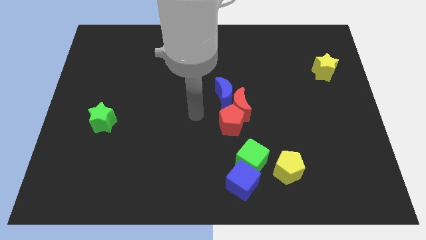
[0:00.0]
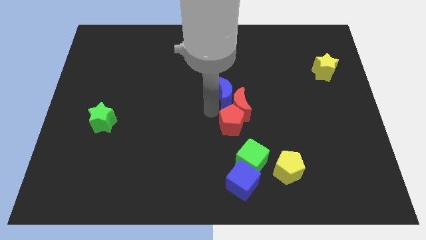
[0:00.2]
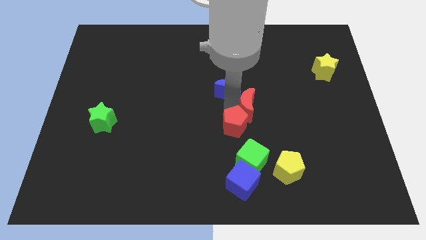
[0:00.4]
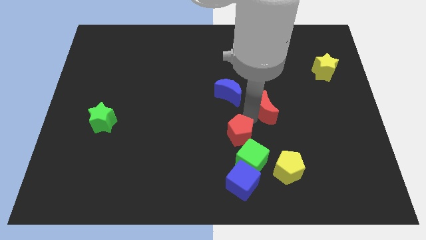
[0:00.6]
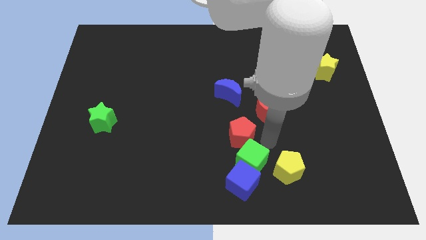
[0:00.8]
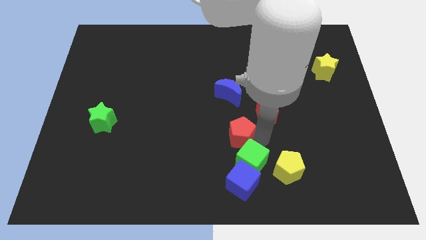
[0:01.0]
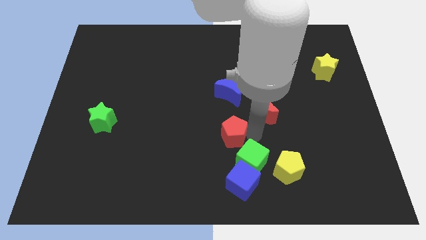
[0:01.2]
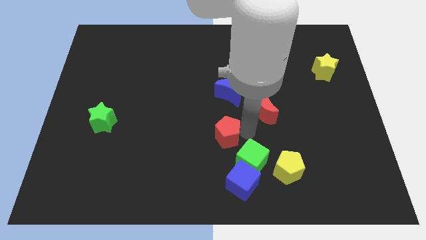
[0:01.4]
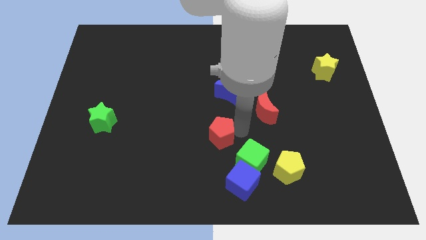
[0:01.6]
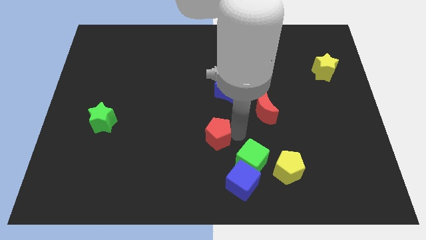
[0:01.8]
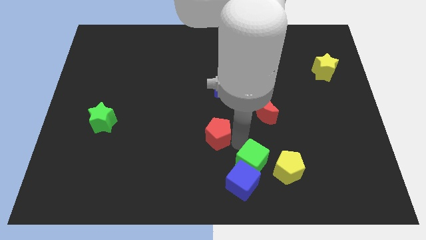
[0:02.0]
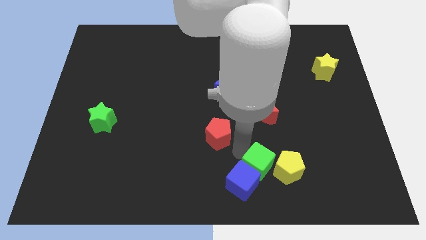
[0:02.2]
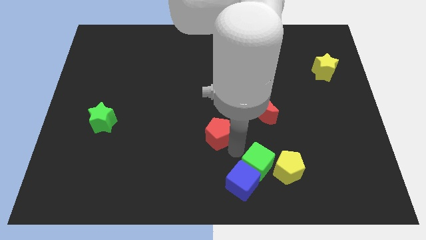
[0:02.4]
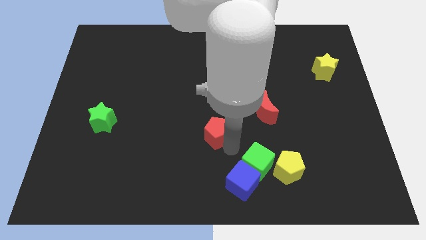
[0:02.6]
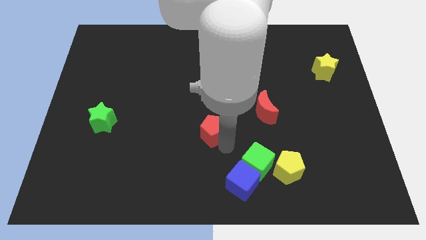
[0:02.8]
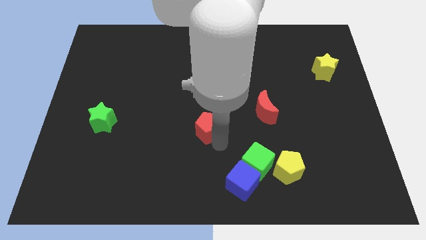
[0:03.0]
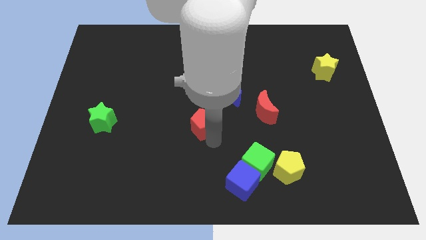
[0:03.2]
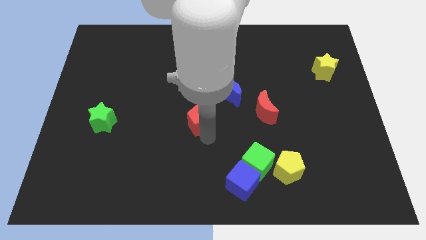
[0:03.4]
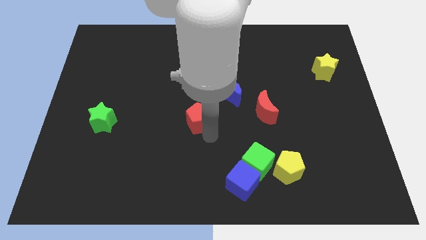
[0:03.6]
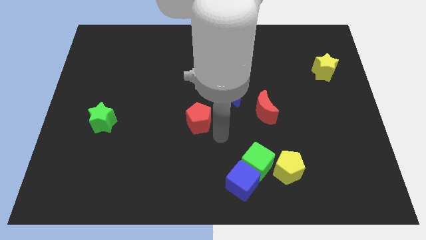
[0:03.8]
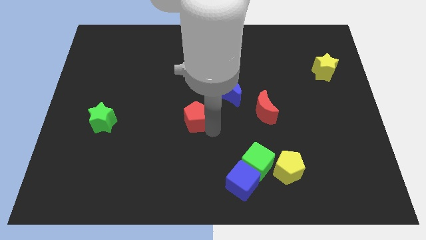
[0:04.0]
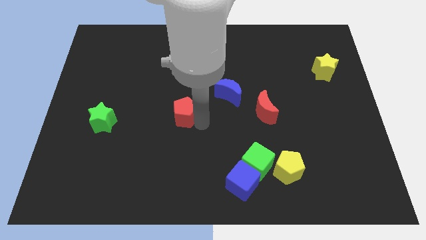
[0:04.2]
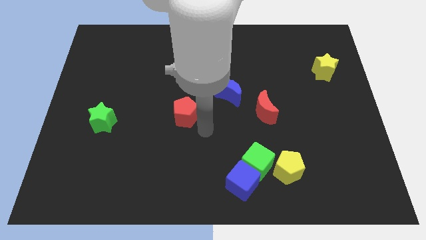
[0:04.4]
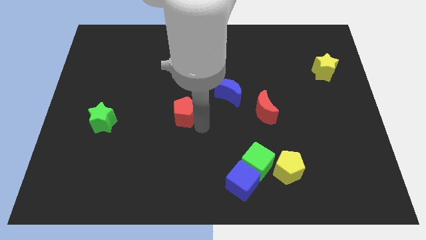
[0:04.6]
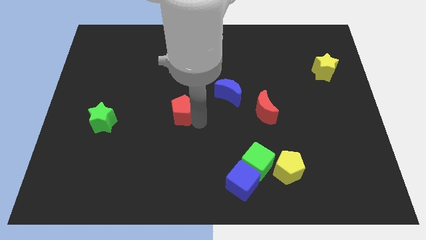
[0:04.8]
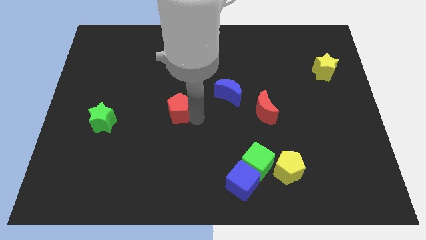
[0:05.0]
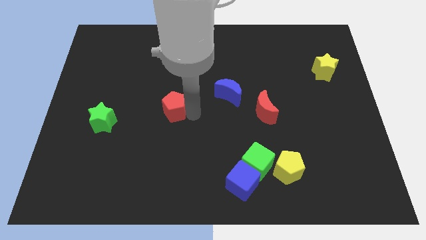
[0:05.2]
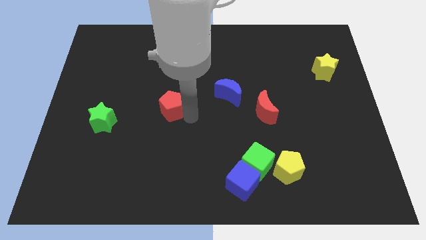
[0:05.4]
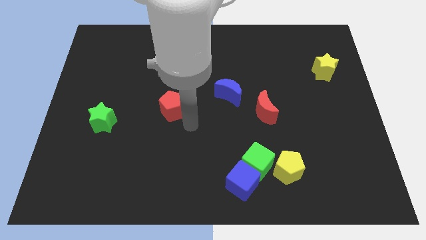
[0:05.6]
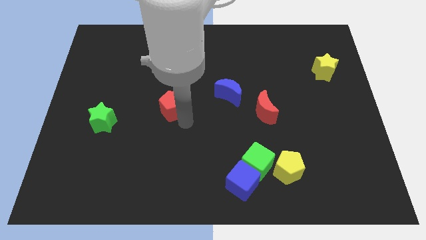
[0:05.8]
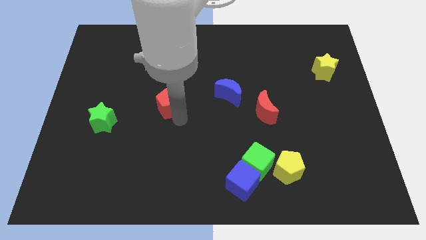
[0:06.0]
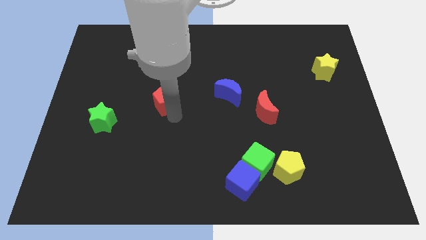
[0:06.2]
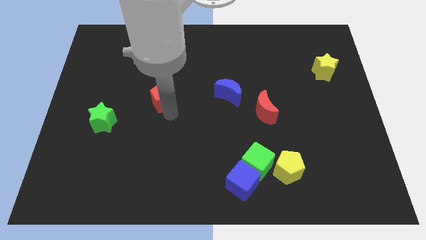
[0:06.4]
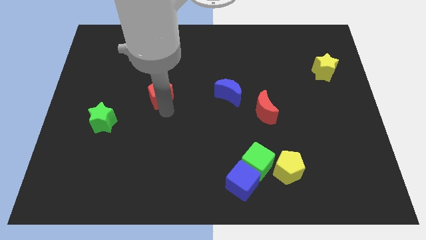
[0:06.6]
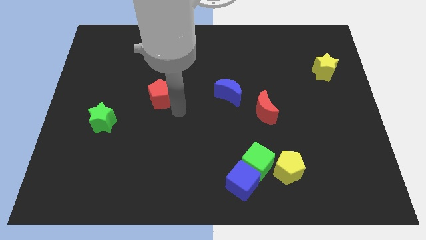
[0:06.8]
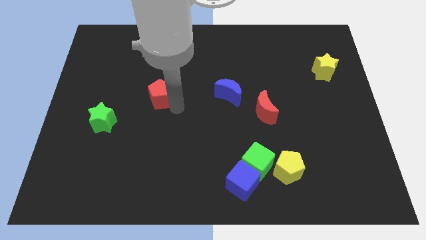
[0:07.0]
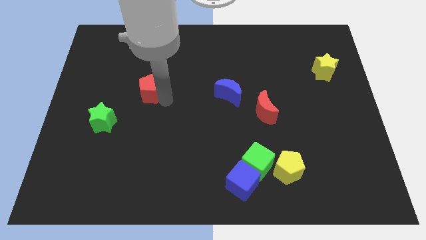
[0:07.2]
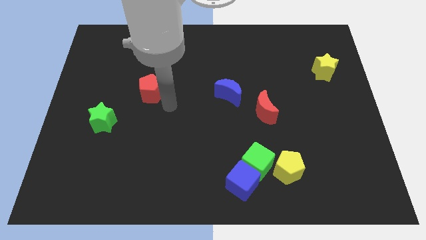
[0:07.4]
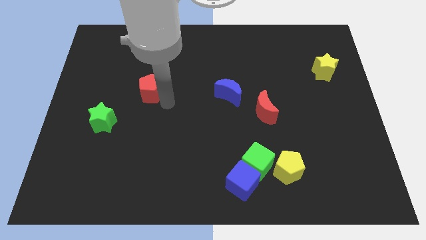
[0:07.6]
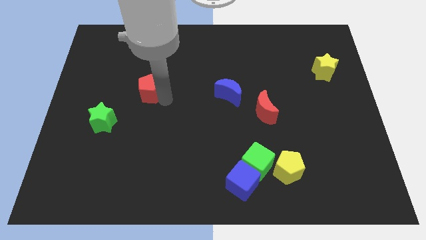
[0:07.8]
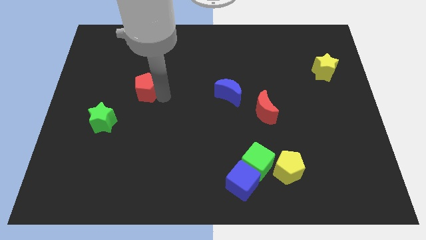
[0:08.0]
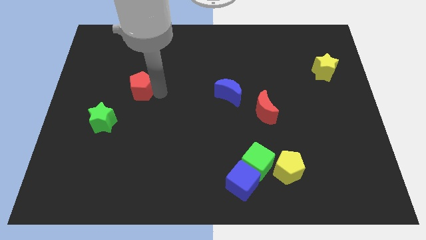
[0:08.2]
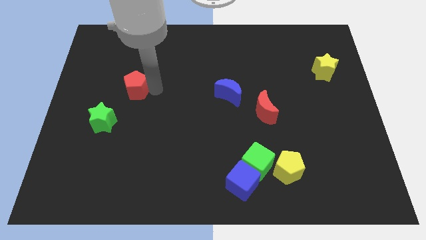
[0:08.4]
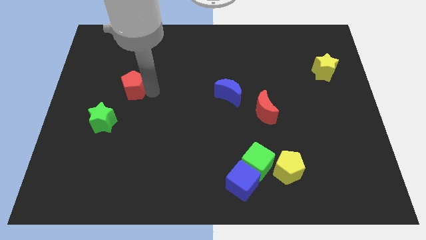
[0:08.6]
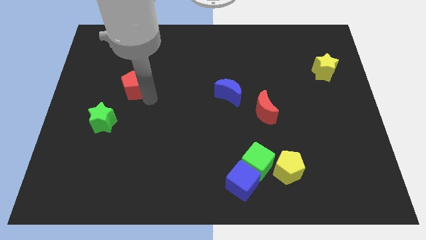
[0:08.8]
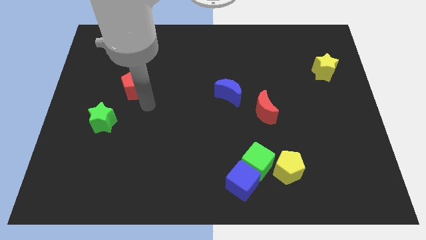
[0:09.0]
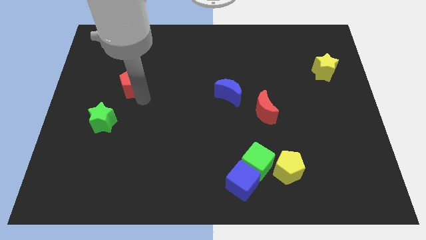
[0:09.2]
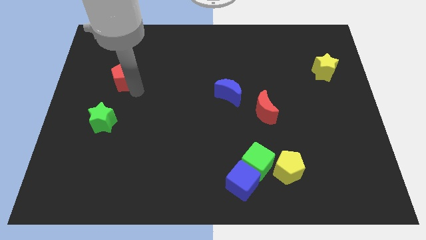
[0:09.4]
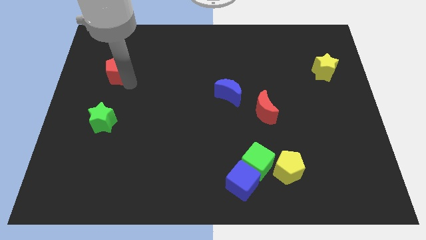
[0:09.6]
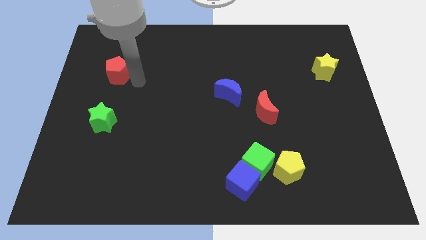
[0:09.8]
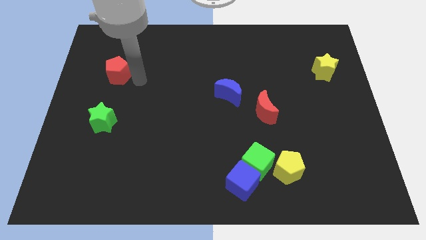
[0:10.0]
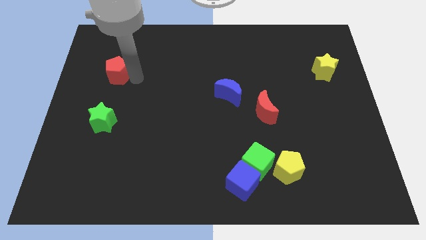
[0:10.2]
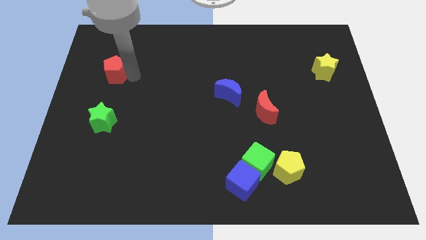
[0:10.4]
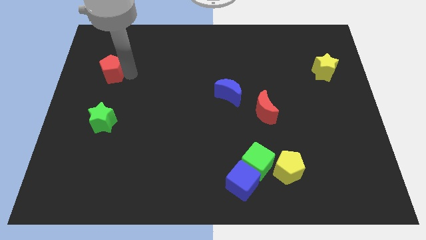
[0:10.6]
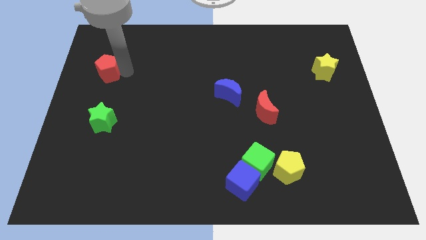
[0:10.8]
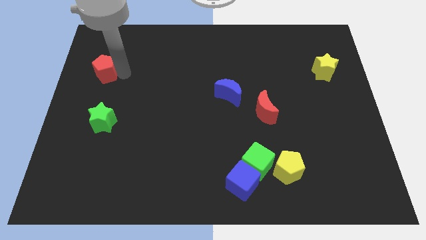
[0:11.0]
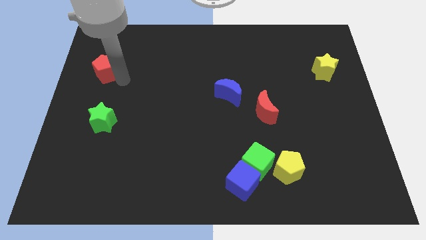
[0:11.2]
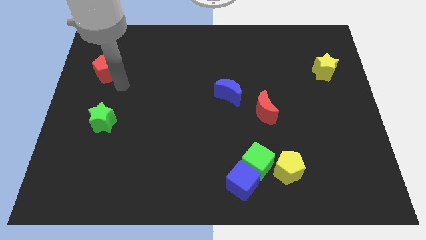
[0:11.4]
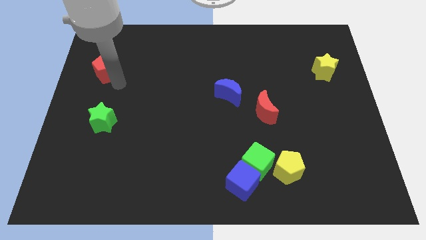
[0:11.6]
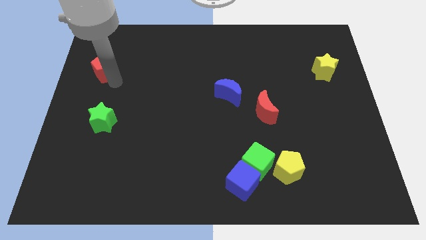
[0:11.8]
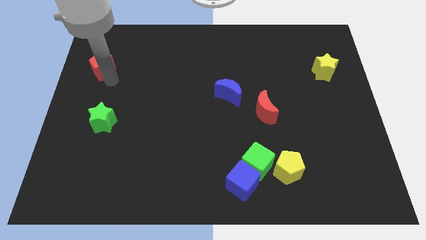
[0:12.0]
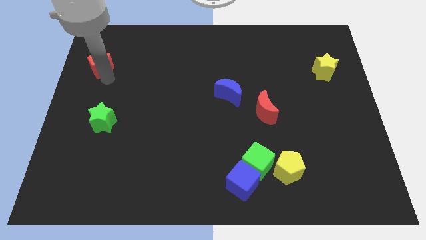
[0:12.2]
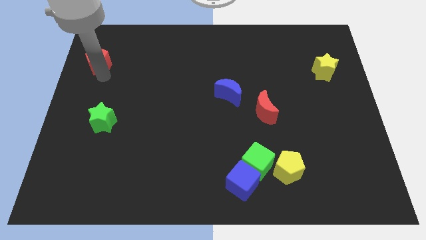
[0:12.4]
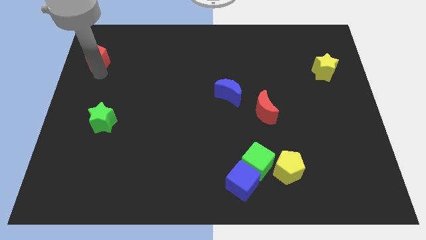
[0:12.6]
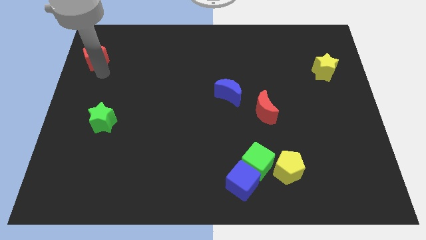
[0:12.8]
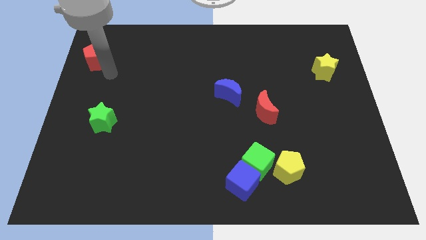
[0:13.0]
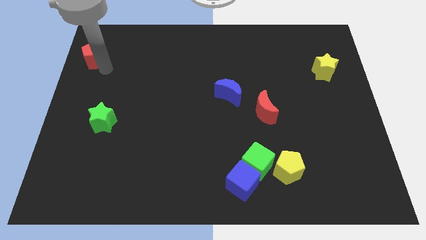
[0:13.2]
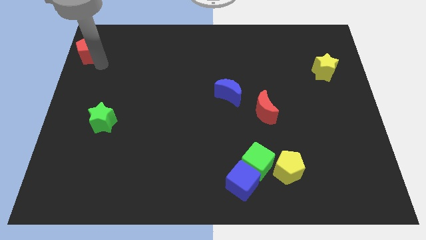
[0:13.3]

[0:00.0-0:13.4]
slide the red pentagon to the upper left corner
